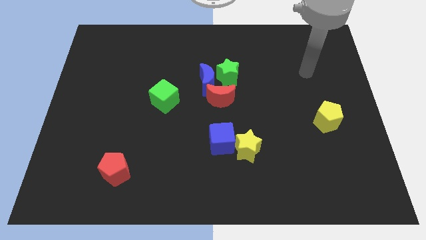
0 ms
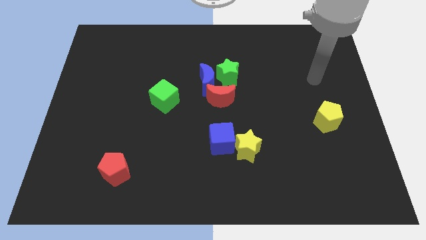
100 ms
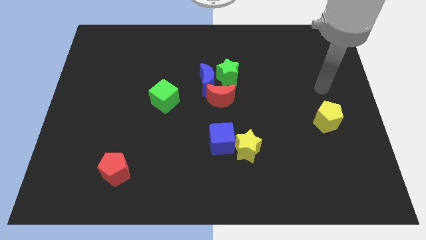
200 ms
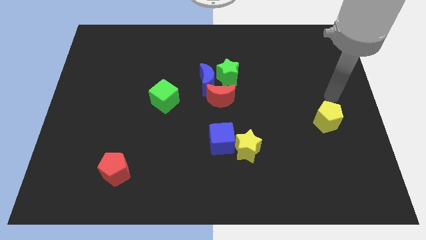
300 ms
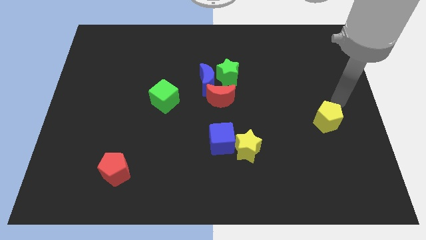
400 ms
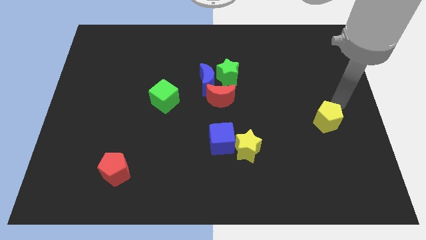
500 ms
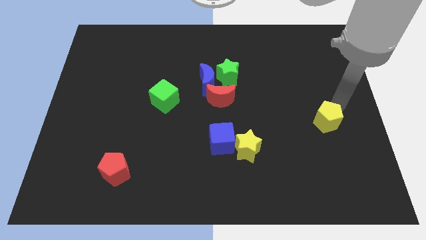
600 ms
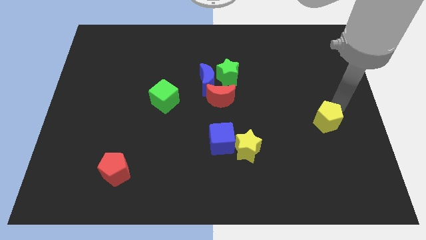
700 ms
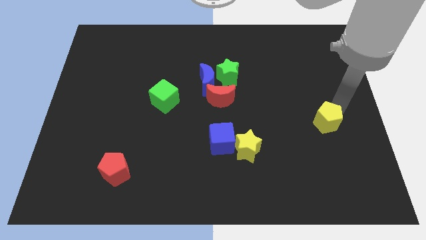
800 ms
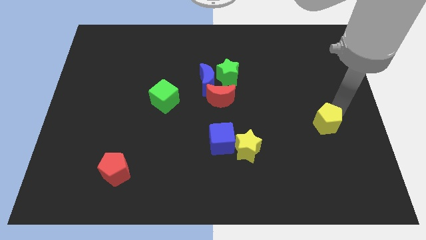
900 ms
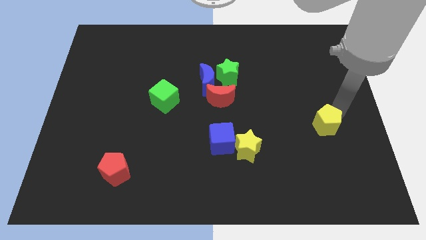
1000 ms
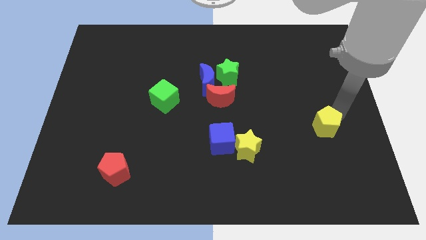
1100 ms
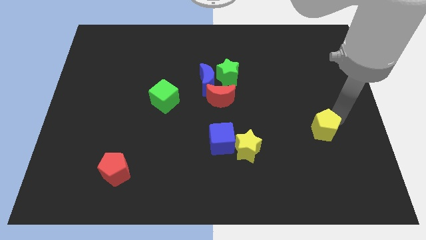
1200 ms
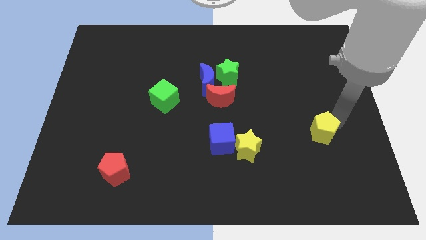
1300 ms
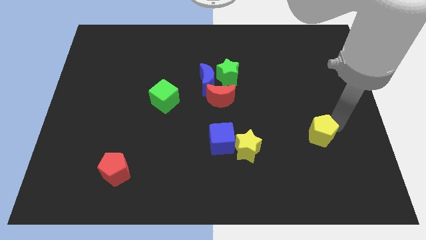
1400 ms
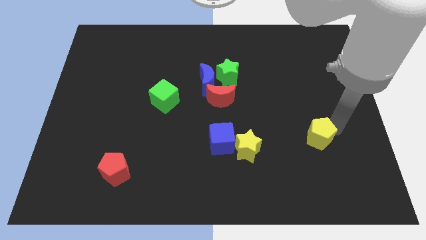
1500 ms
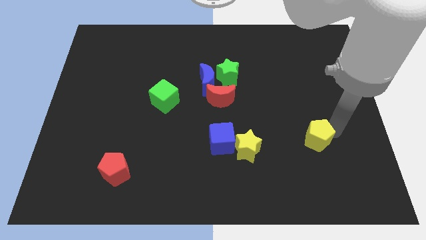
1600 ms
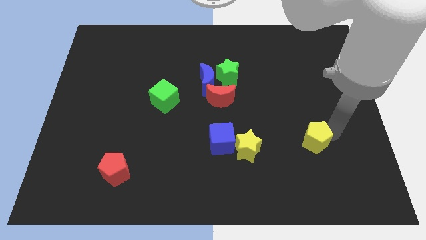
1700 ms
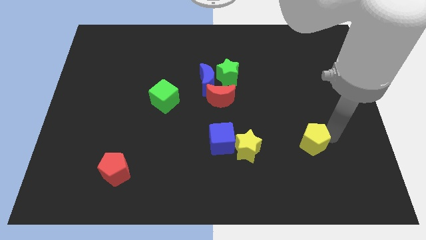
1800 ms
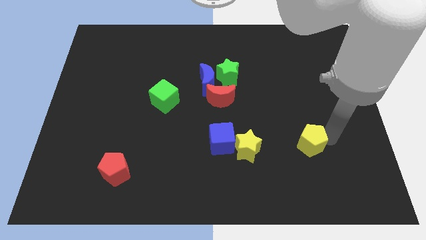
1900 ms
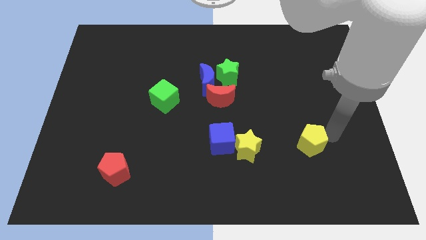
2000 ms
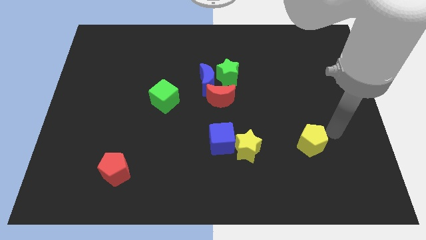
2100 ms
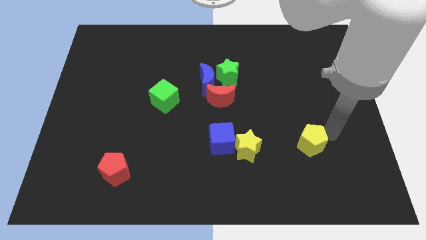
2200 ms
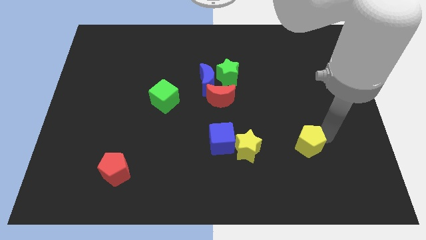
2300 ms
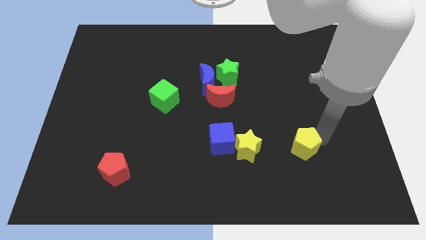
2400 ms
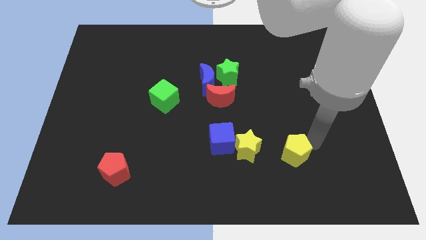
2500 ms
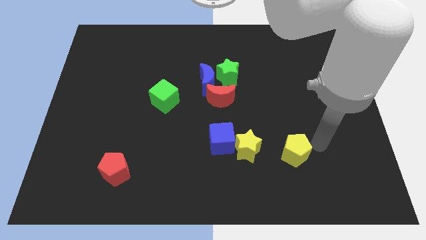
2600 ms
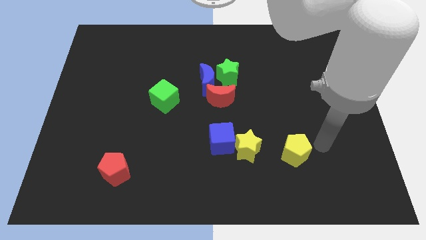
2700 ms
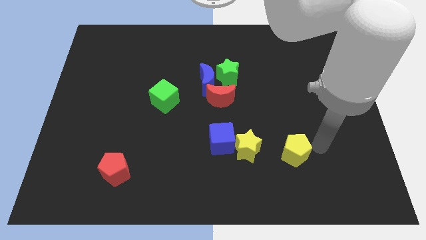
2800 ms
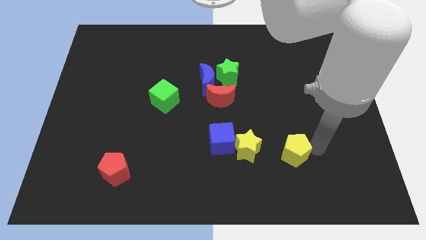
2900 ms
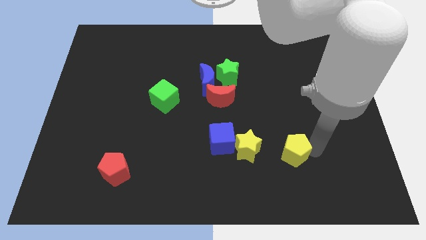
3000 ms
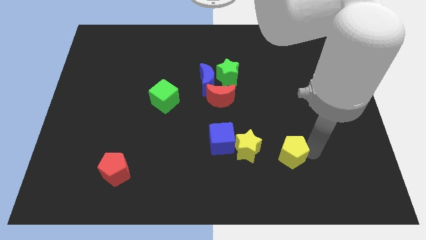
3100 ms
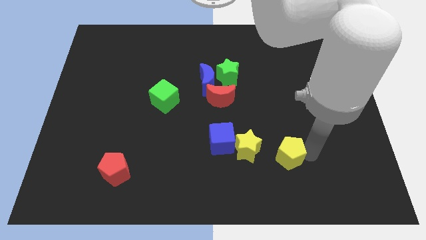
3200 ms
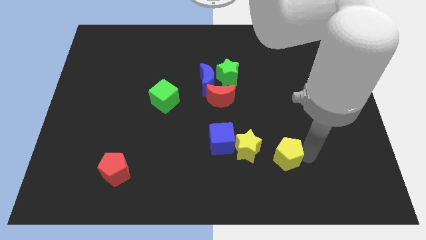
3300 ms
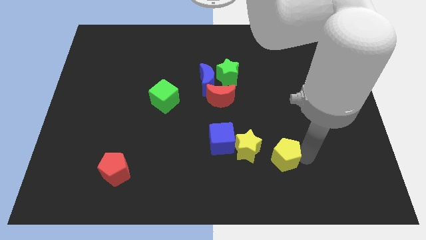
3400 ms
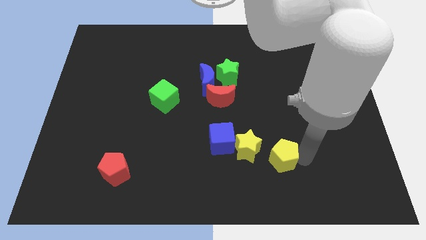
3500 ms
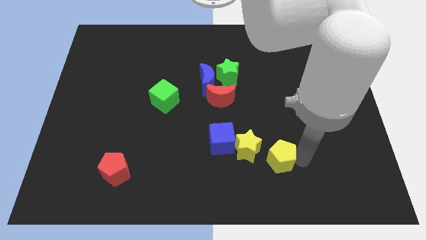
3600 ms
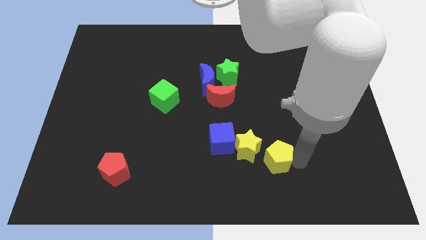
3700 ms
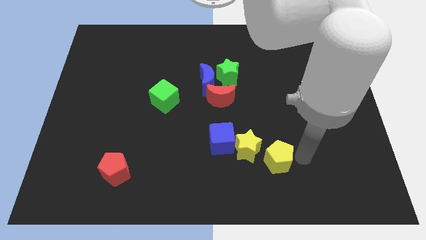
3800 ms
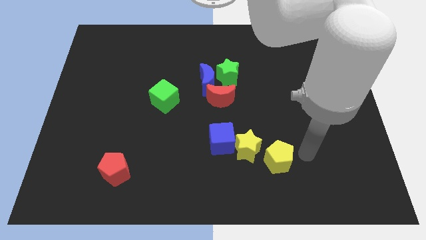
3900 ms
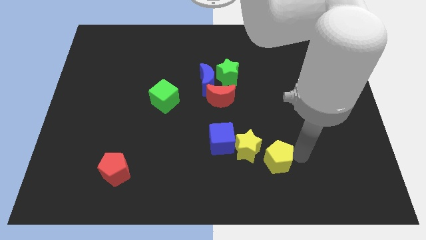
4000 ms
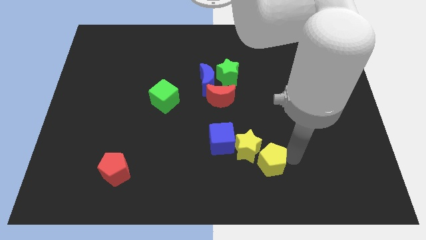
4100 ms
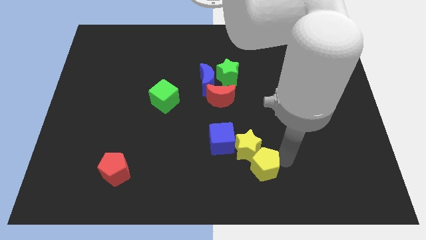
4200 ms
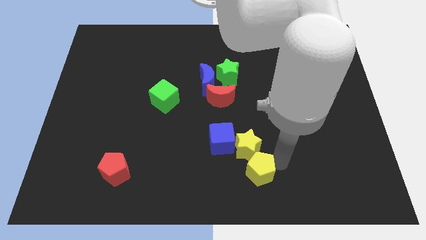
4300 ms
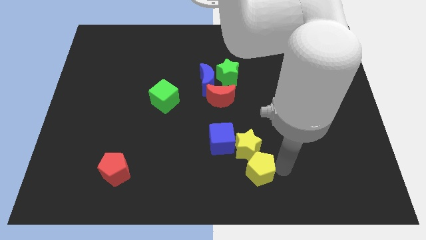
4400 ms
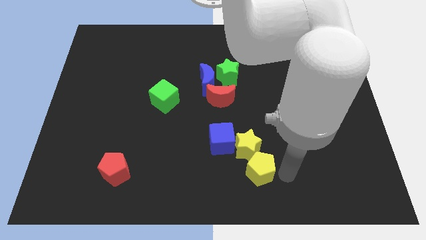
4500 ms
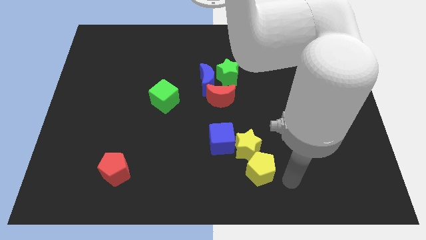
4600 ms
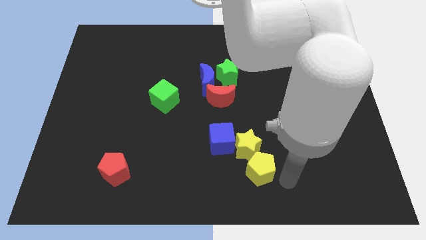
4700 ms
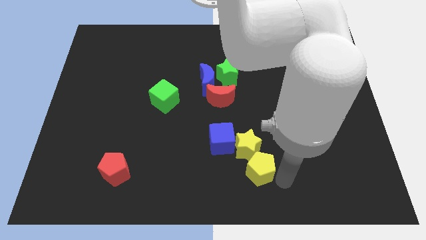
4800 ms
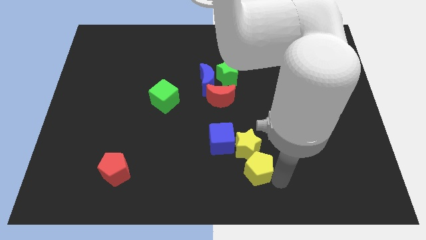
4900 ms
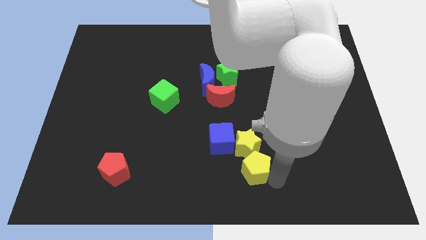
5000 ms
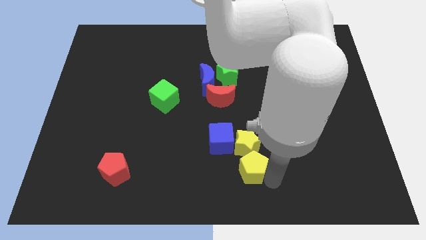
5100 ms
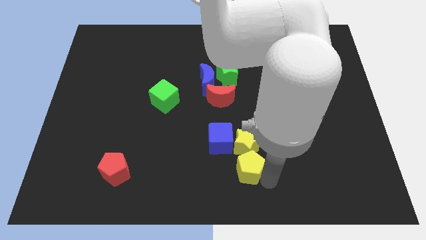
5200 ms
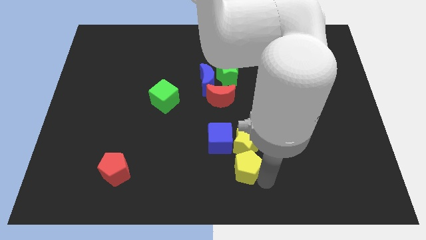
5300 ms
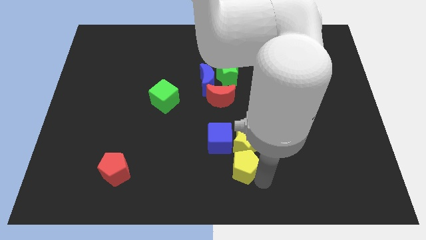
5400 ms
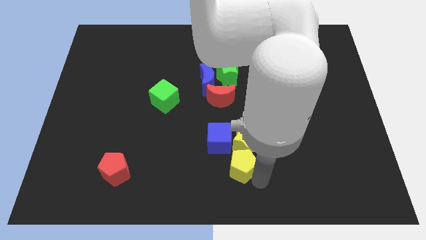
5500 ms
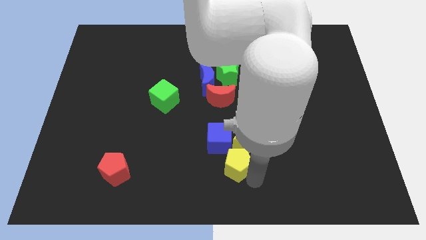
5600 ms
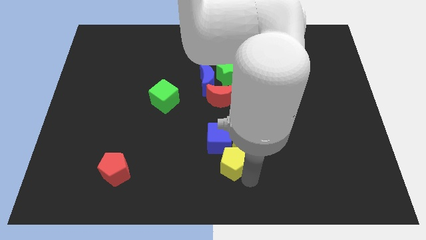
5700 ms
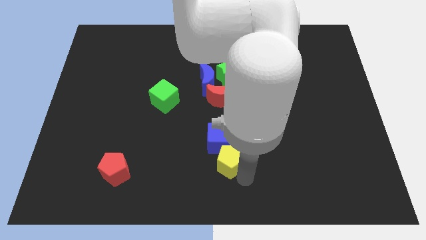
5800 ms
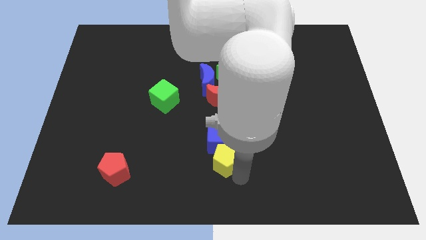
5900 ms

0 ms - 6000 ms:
move the yellow pentagon to the left side of the yellow star
